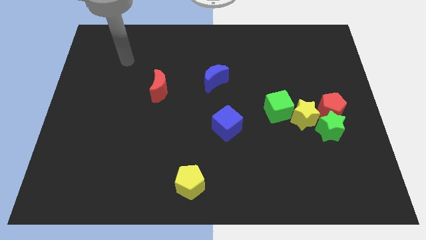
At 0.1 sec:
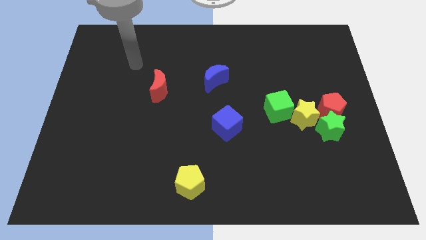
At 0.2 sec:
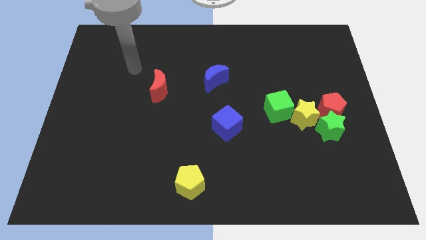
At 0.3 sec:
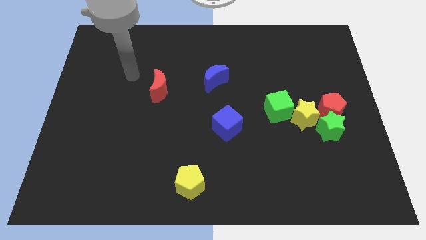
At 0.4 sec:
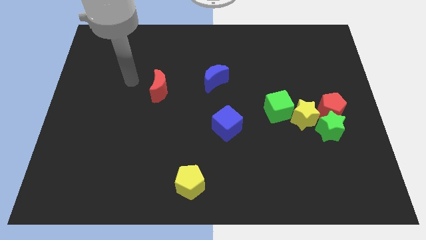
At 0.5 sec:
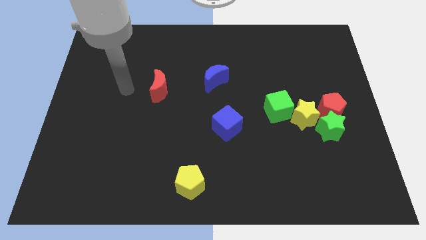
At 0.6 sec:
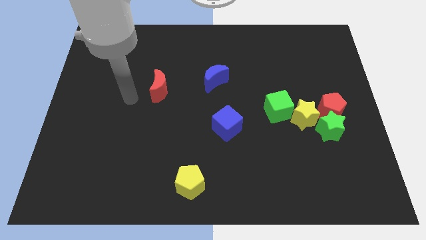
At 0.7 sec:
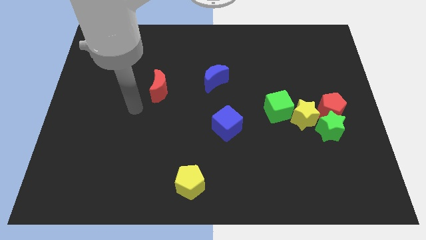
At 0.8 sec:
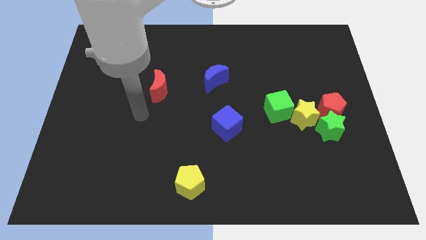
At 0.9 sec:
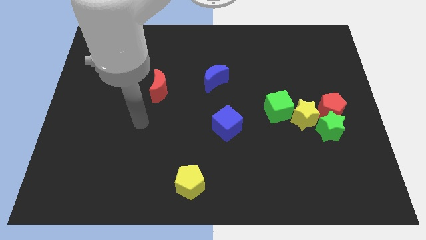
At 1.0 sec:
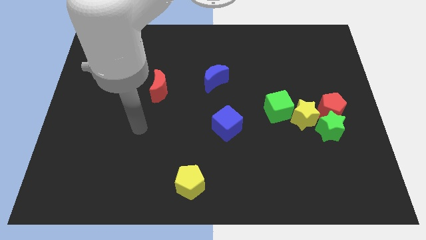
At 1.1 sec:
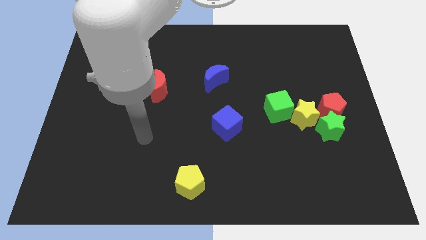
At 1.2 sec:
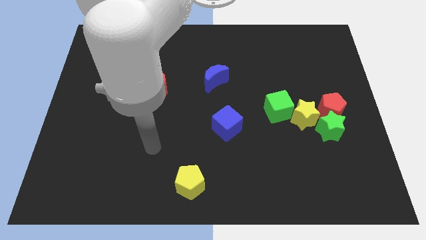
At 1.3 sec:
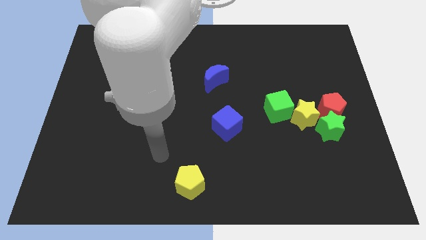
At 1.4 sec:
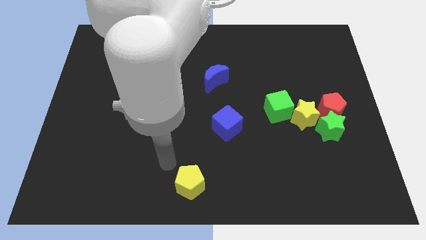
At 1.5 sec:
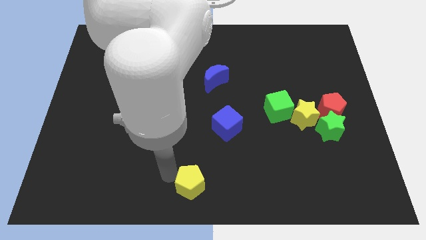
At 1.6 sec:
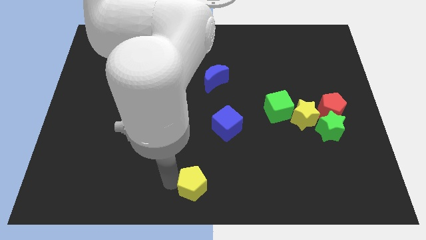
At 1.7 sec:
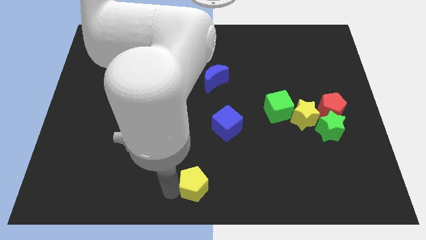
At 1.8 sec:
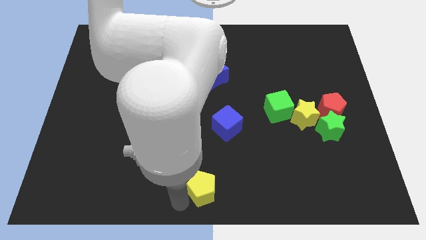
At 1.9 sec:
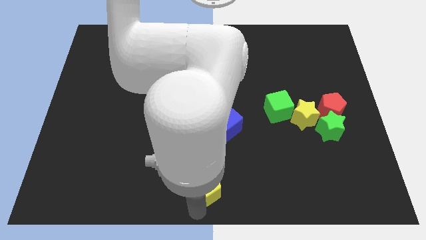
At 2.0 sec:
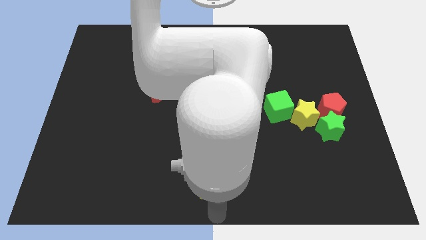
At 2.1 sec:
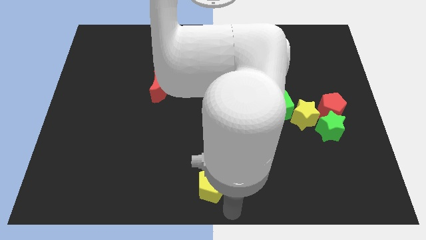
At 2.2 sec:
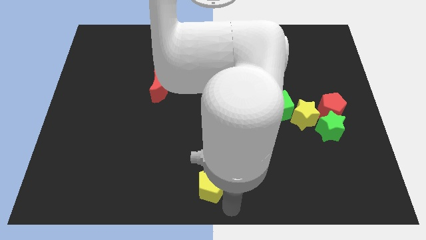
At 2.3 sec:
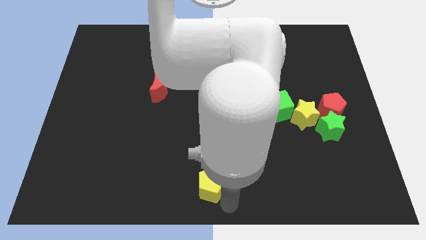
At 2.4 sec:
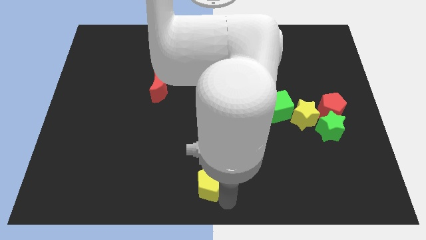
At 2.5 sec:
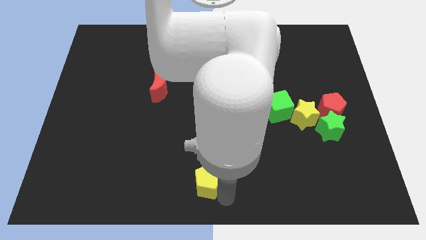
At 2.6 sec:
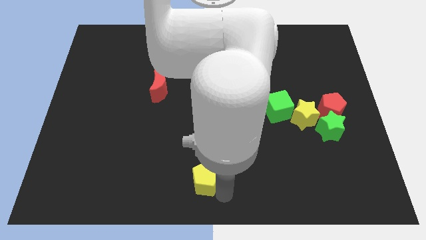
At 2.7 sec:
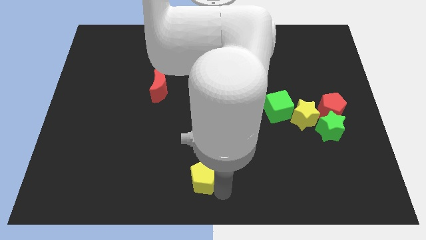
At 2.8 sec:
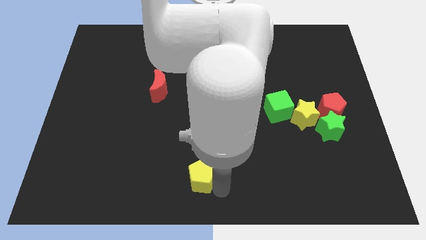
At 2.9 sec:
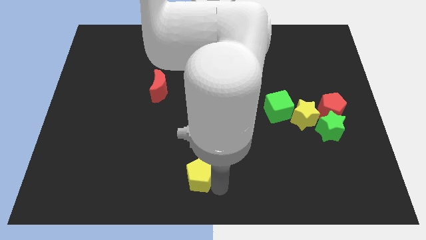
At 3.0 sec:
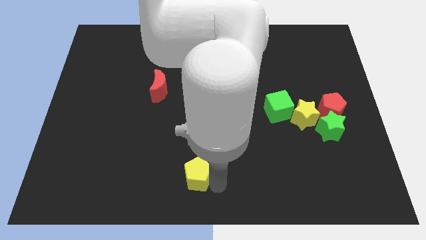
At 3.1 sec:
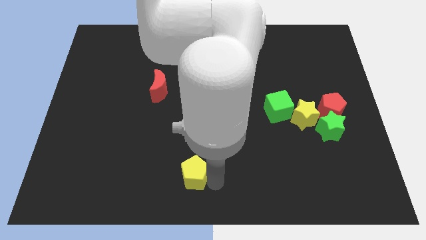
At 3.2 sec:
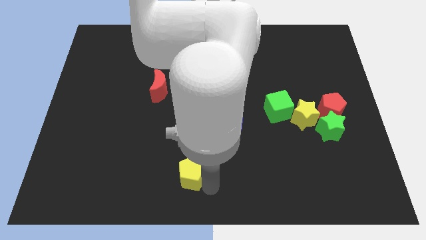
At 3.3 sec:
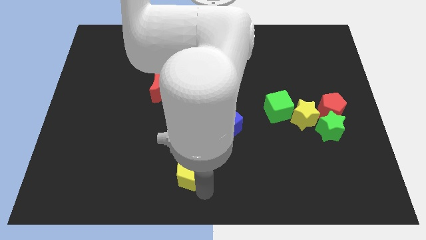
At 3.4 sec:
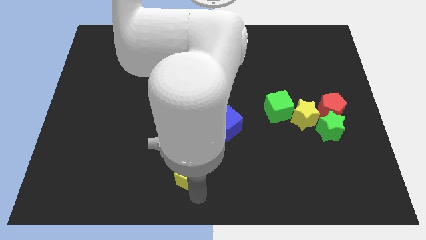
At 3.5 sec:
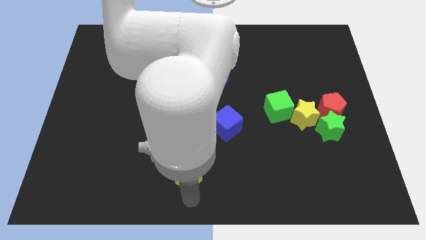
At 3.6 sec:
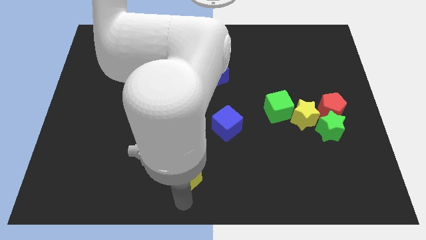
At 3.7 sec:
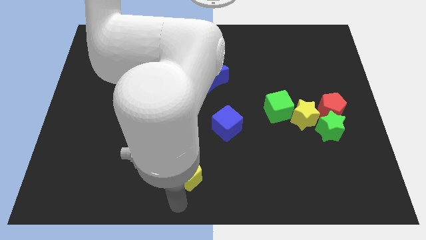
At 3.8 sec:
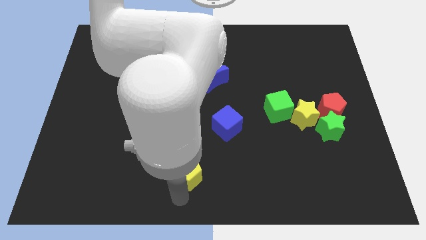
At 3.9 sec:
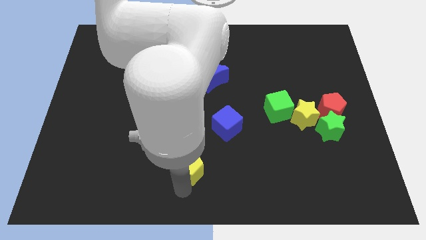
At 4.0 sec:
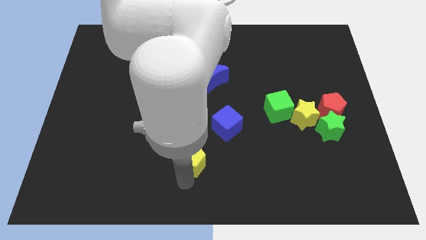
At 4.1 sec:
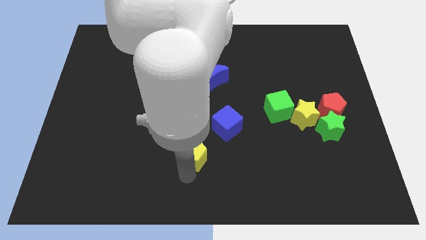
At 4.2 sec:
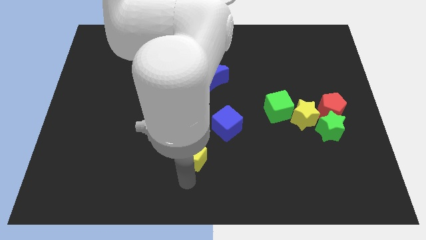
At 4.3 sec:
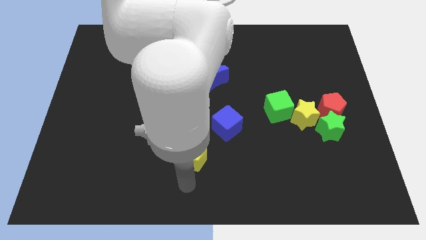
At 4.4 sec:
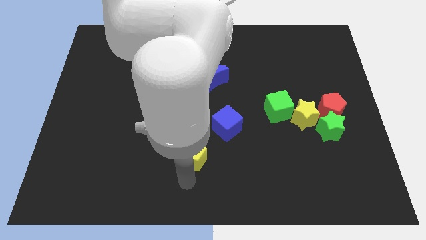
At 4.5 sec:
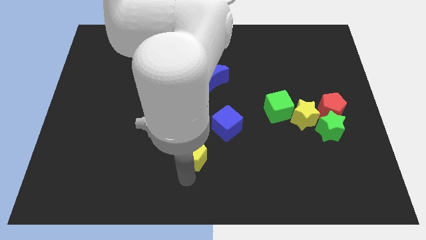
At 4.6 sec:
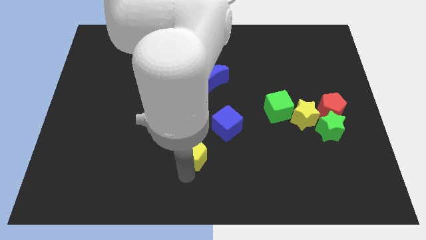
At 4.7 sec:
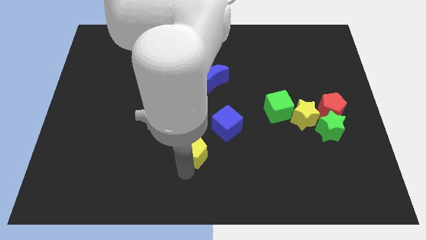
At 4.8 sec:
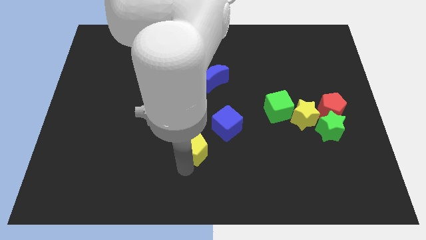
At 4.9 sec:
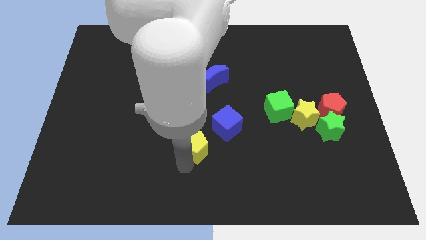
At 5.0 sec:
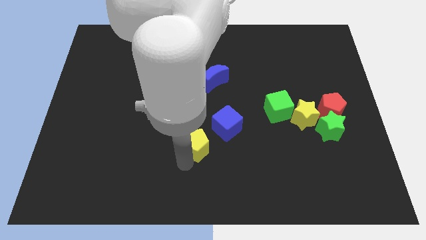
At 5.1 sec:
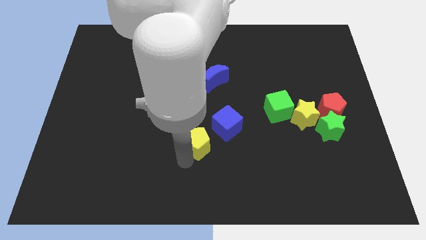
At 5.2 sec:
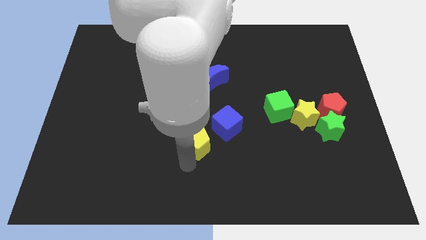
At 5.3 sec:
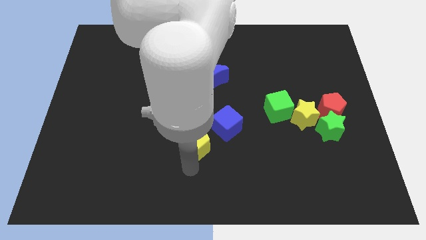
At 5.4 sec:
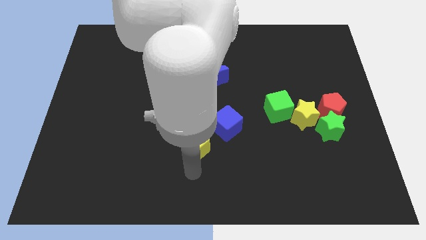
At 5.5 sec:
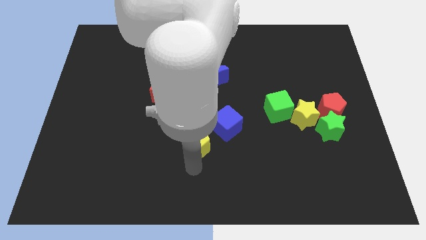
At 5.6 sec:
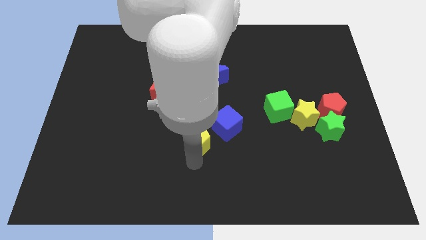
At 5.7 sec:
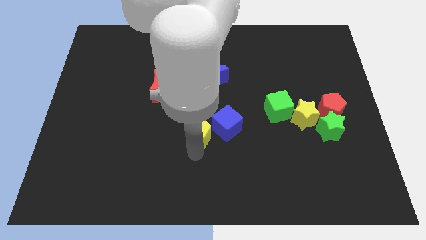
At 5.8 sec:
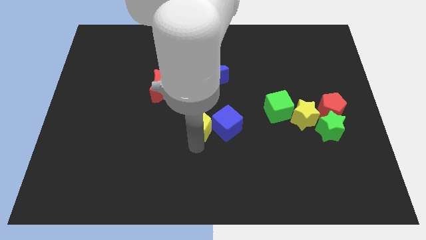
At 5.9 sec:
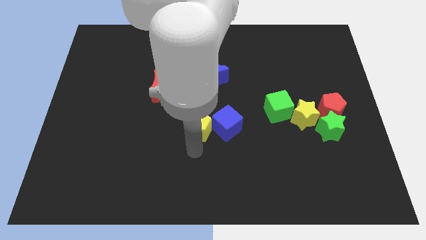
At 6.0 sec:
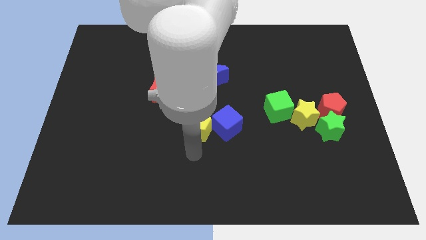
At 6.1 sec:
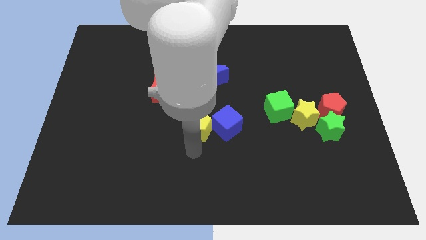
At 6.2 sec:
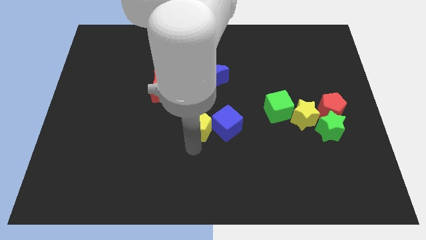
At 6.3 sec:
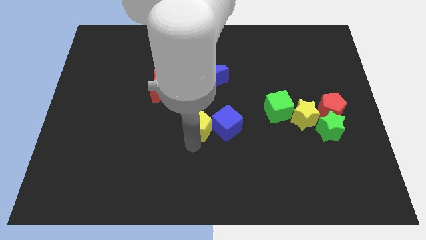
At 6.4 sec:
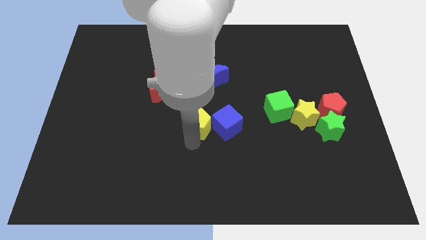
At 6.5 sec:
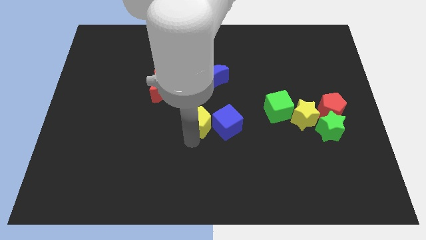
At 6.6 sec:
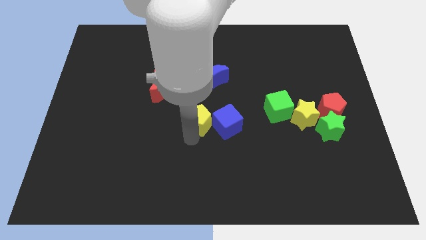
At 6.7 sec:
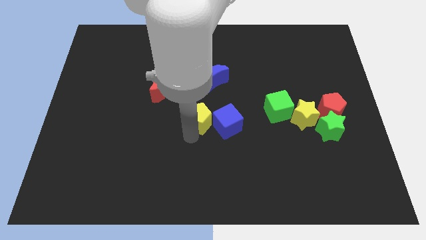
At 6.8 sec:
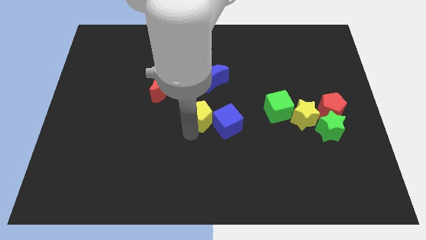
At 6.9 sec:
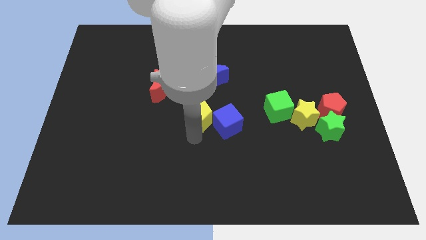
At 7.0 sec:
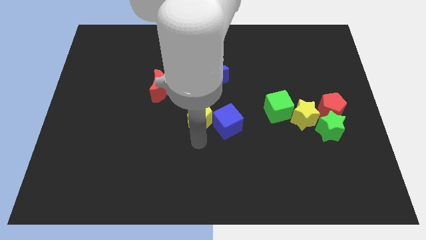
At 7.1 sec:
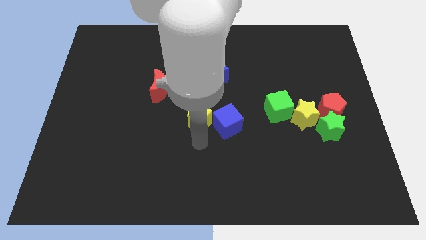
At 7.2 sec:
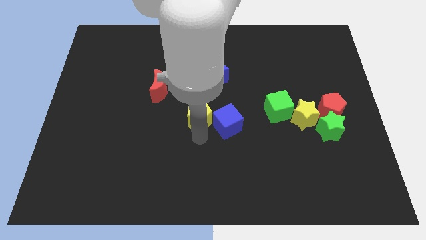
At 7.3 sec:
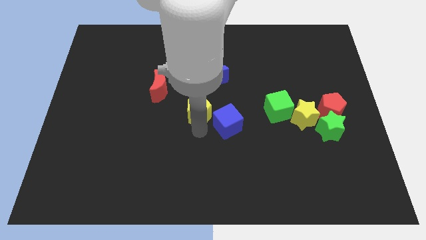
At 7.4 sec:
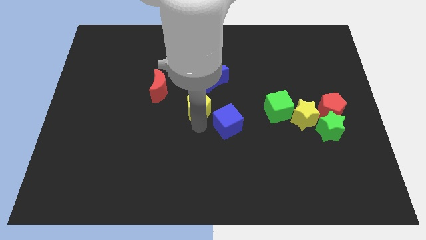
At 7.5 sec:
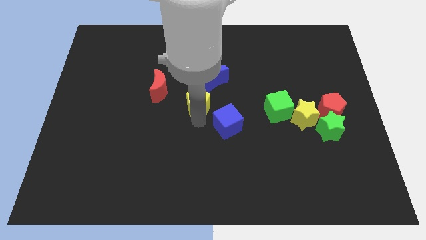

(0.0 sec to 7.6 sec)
push the yellow pentagon upwards

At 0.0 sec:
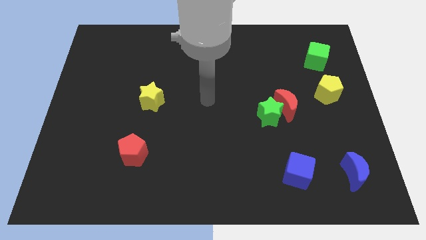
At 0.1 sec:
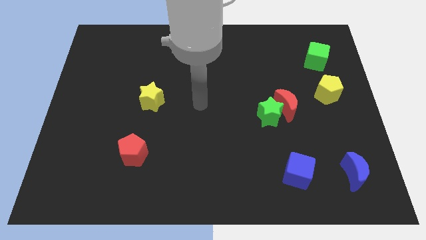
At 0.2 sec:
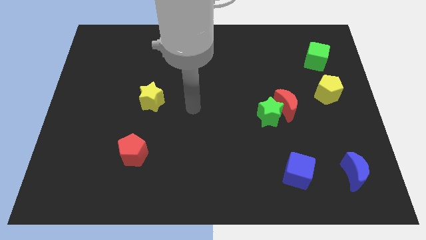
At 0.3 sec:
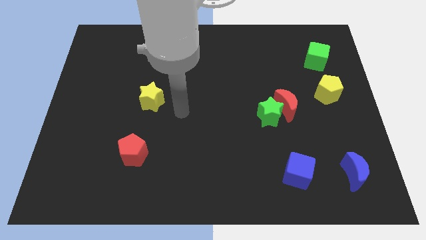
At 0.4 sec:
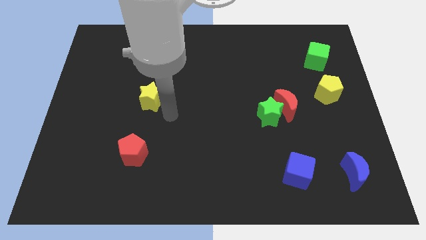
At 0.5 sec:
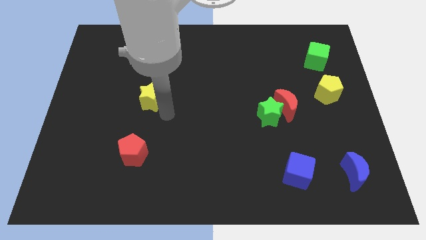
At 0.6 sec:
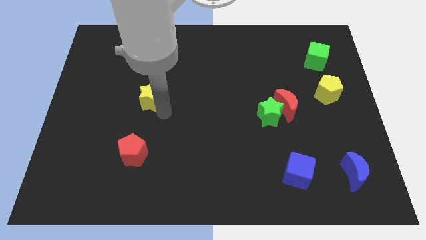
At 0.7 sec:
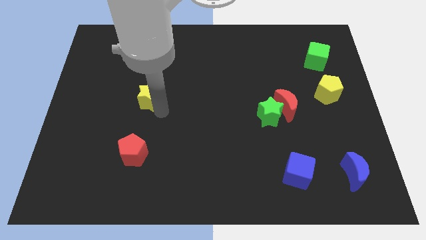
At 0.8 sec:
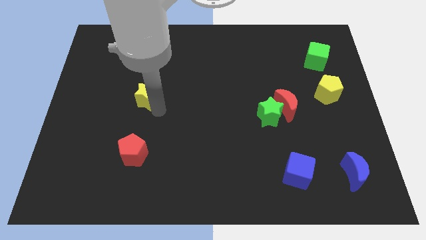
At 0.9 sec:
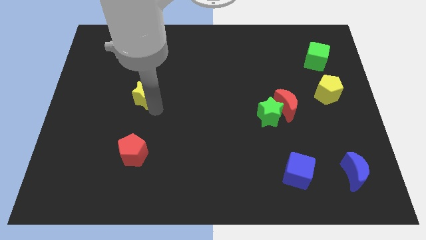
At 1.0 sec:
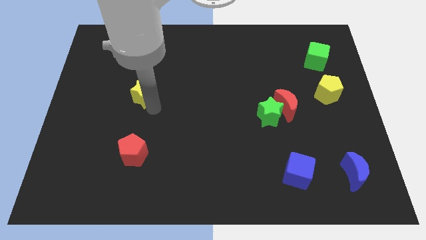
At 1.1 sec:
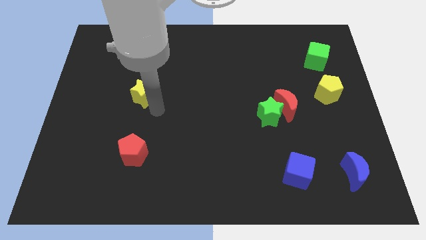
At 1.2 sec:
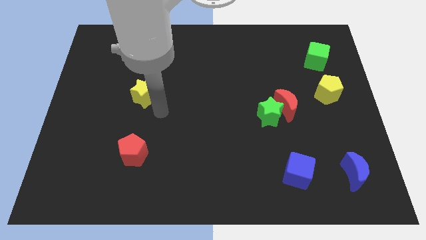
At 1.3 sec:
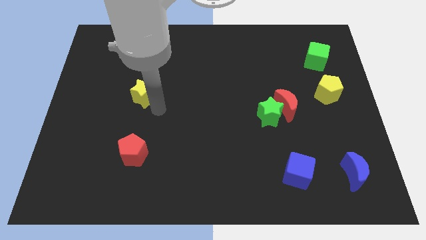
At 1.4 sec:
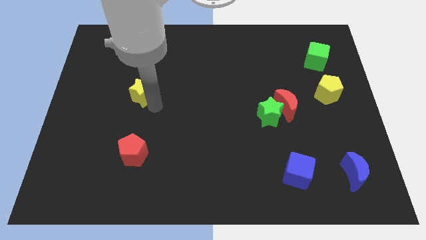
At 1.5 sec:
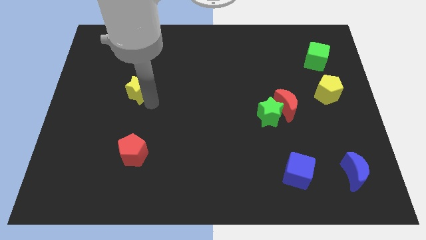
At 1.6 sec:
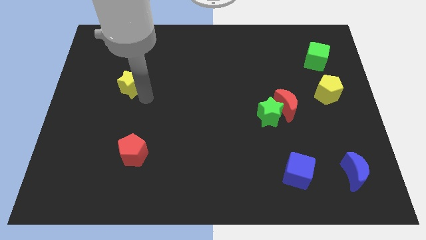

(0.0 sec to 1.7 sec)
slide the yellow star a little up and left diagonally
